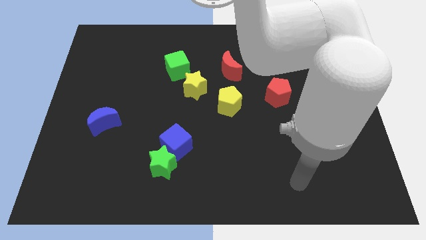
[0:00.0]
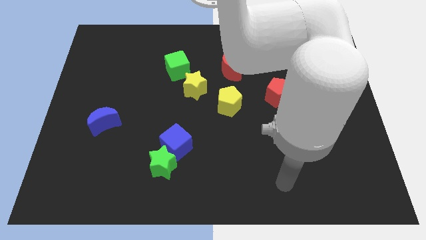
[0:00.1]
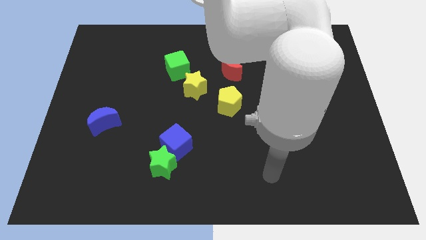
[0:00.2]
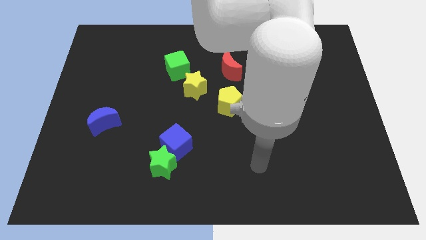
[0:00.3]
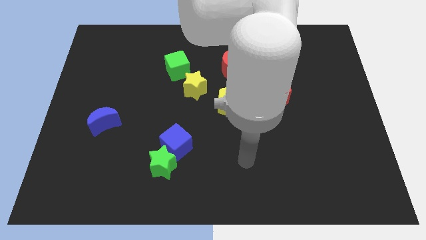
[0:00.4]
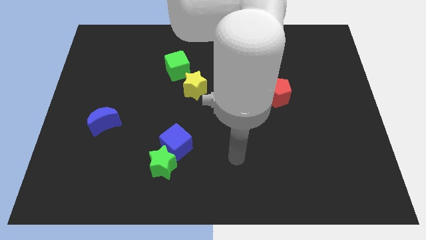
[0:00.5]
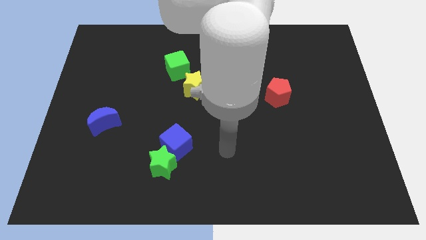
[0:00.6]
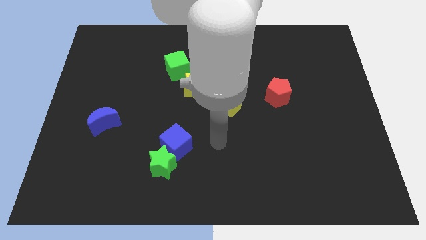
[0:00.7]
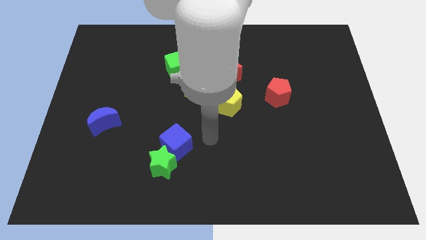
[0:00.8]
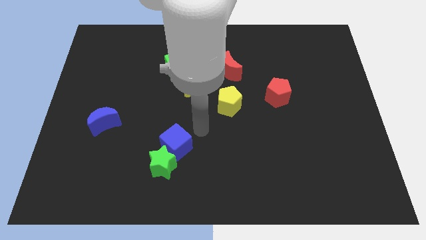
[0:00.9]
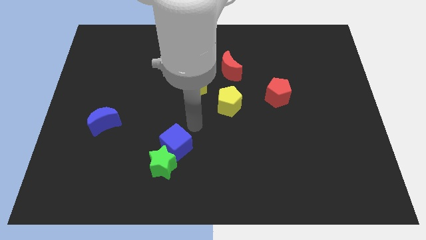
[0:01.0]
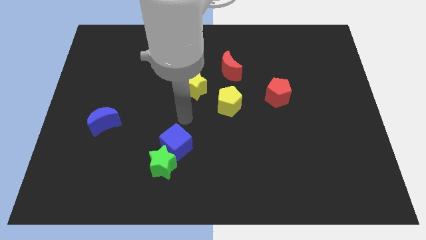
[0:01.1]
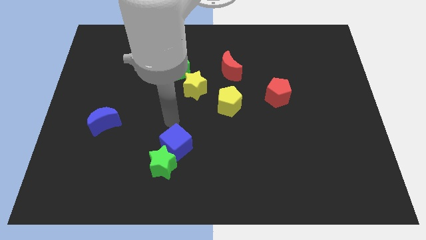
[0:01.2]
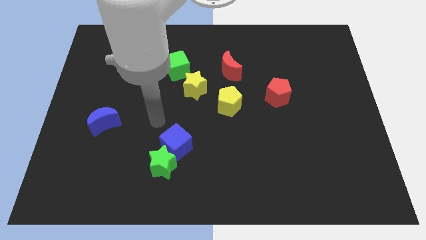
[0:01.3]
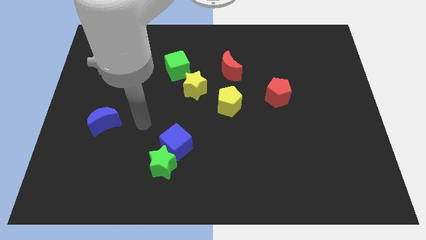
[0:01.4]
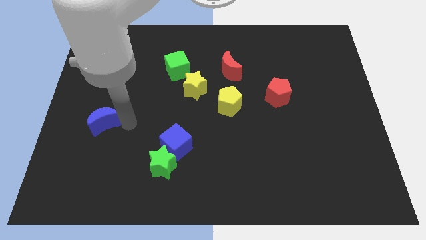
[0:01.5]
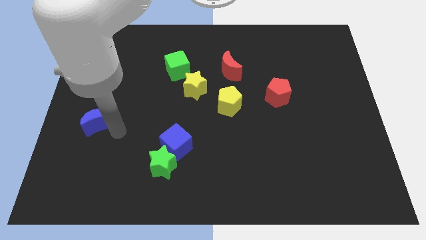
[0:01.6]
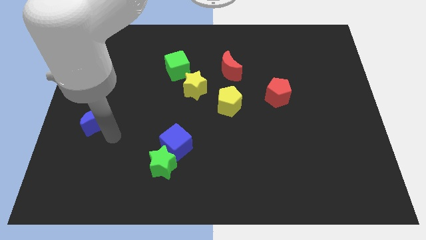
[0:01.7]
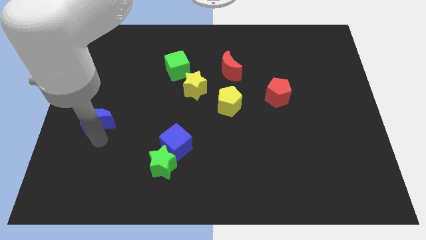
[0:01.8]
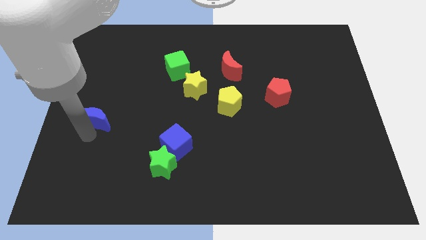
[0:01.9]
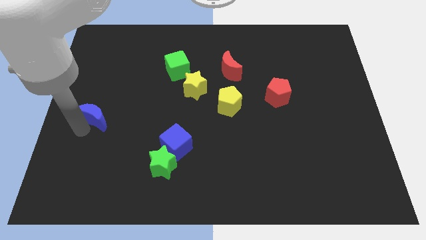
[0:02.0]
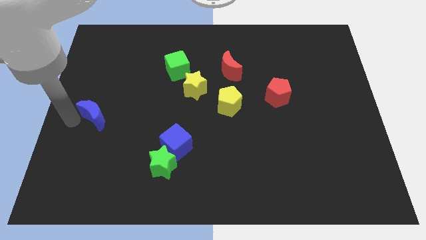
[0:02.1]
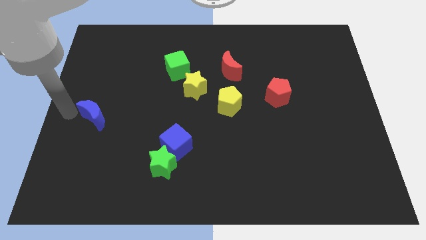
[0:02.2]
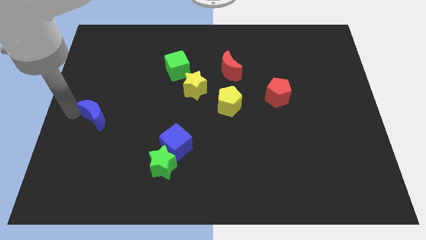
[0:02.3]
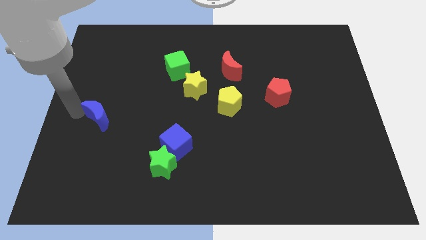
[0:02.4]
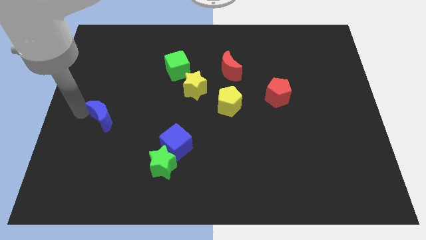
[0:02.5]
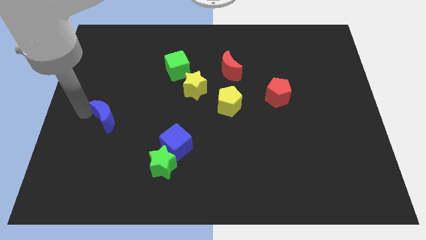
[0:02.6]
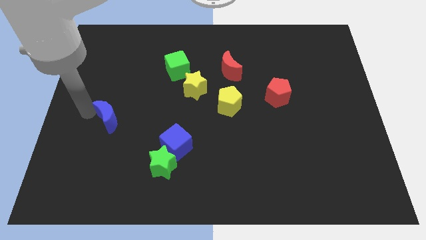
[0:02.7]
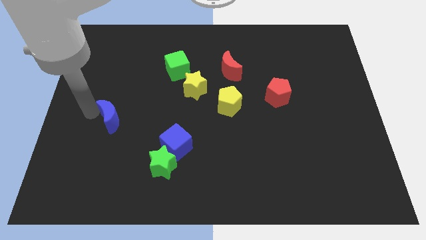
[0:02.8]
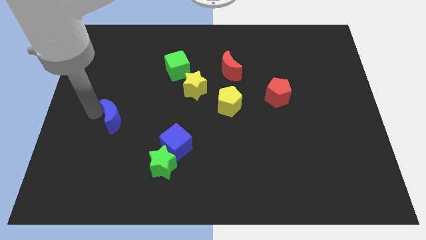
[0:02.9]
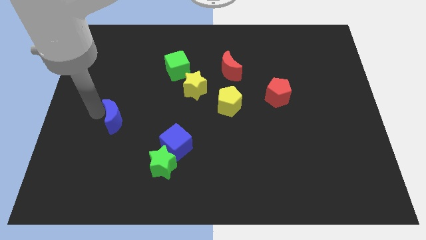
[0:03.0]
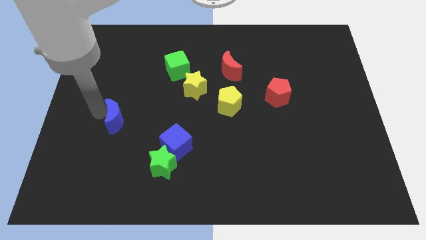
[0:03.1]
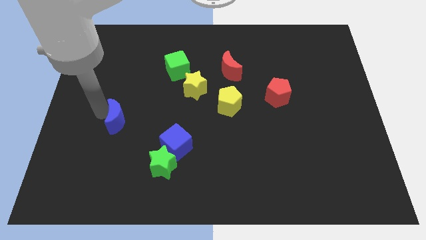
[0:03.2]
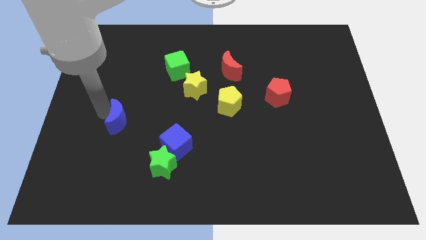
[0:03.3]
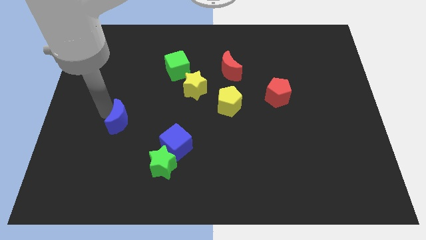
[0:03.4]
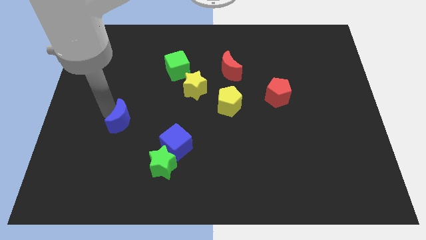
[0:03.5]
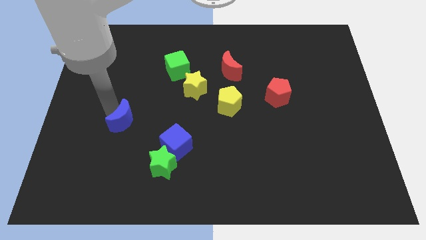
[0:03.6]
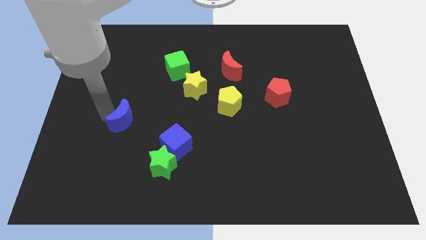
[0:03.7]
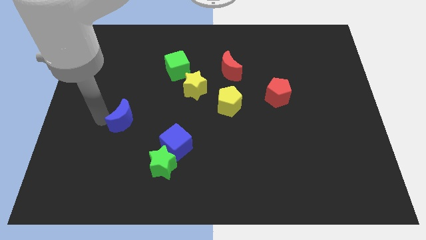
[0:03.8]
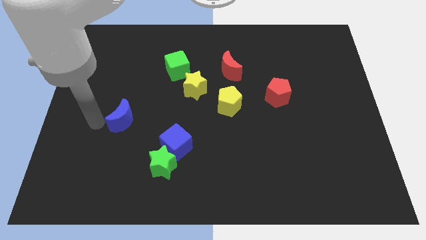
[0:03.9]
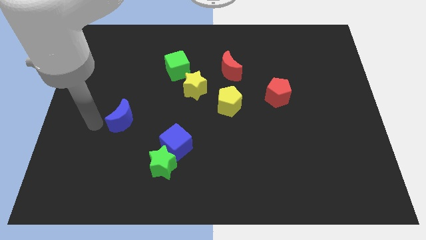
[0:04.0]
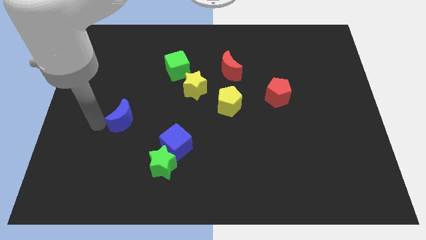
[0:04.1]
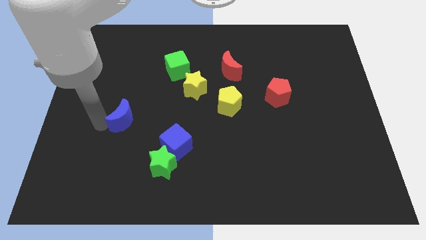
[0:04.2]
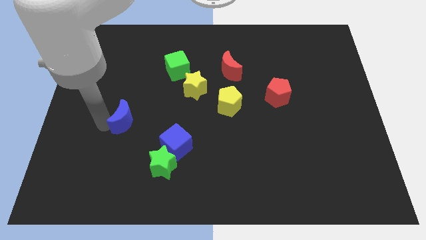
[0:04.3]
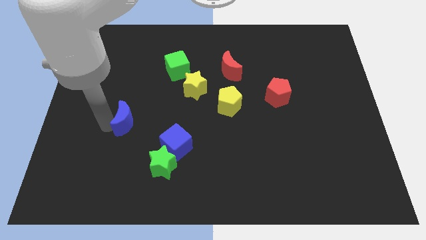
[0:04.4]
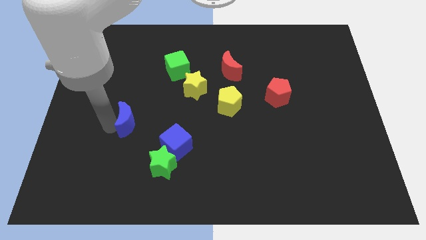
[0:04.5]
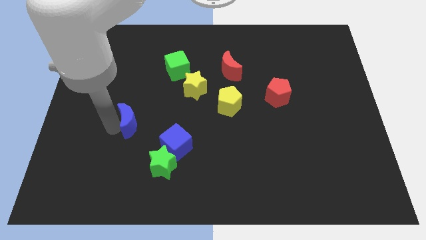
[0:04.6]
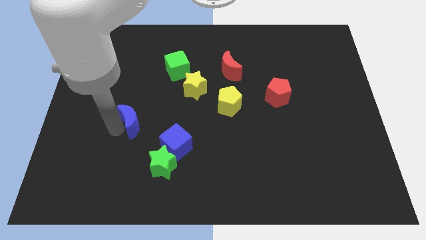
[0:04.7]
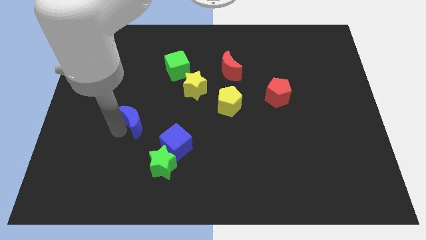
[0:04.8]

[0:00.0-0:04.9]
slide the blue moon slightly right

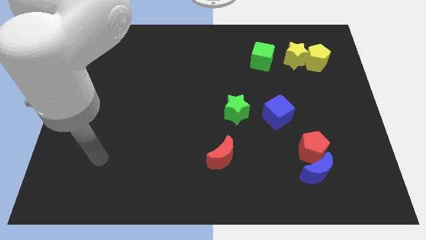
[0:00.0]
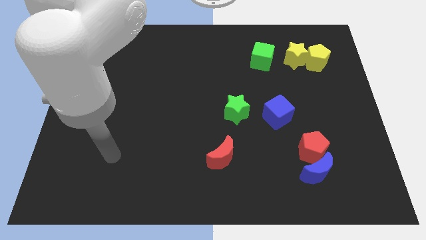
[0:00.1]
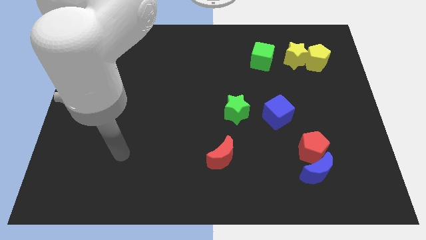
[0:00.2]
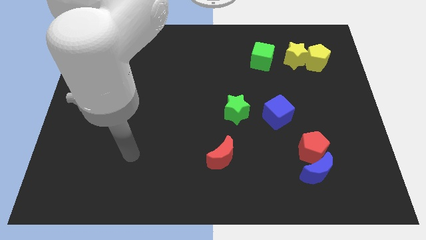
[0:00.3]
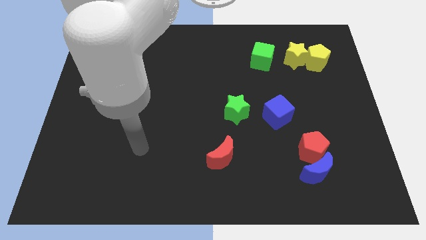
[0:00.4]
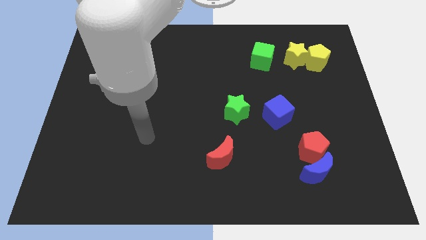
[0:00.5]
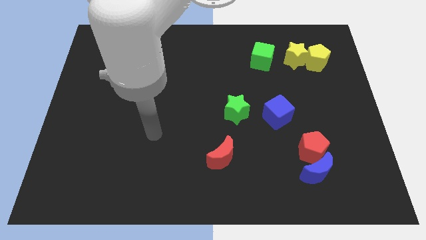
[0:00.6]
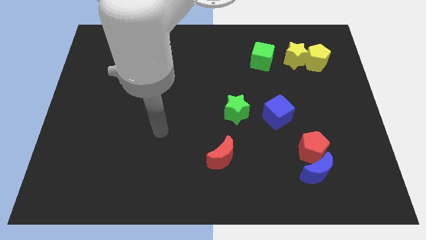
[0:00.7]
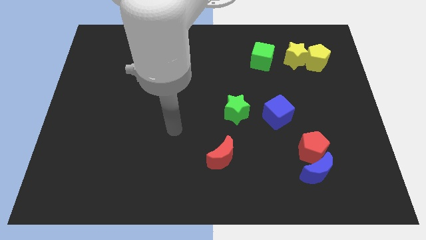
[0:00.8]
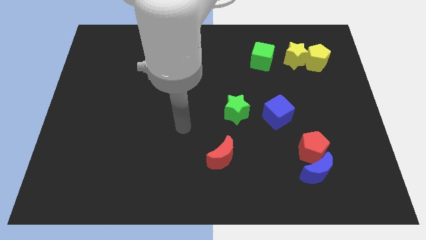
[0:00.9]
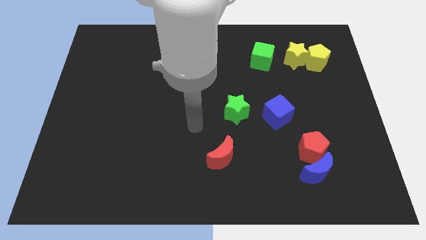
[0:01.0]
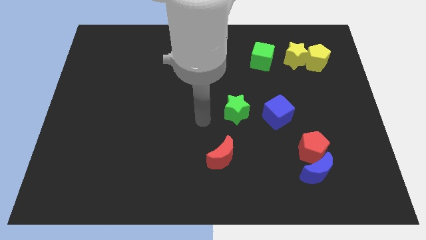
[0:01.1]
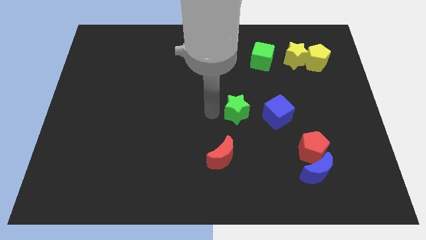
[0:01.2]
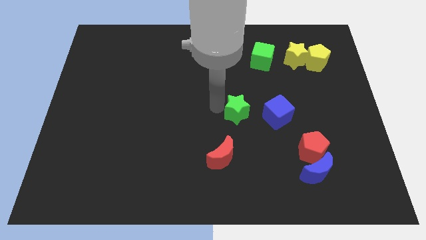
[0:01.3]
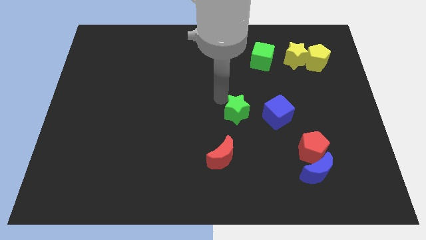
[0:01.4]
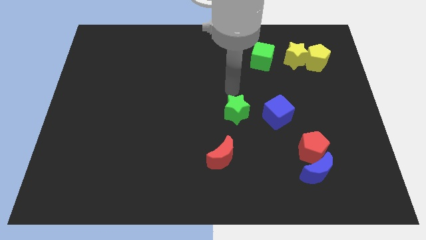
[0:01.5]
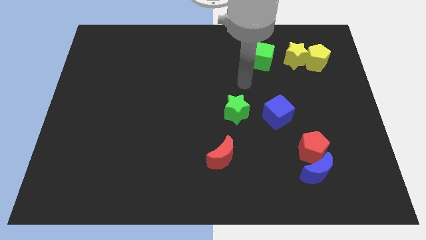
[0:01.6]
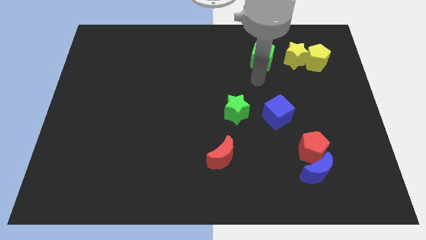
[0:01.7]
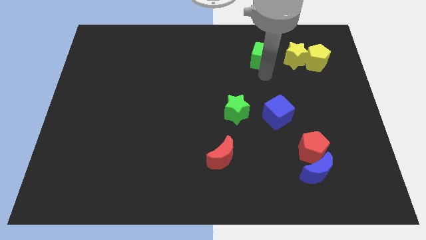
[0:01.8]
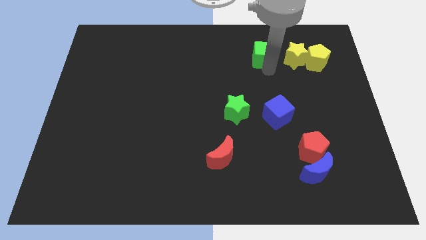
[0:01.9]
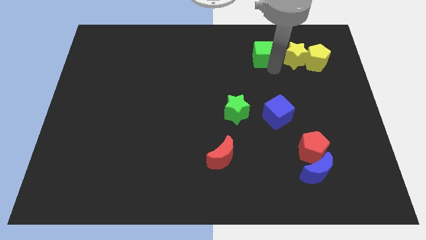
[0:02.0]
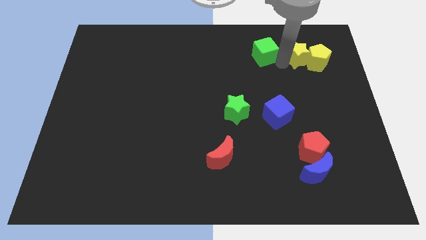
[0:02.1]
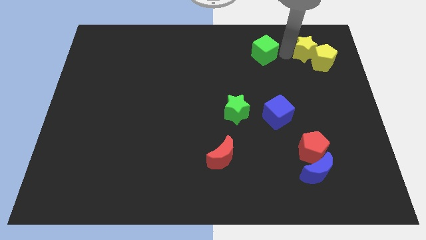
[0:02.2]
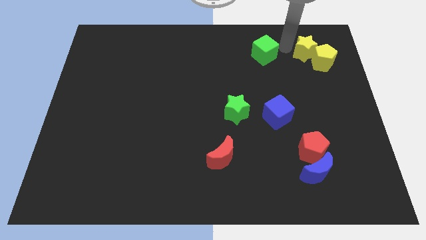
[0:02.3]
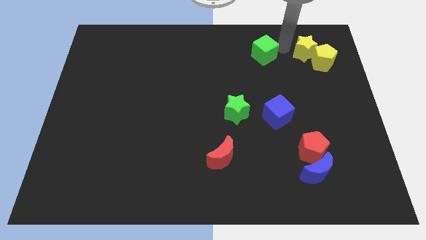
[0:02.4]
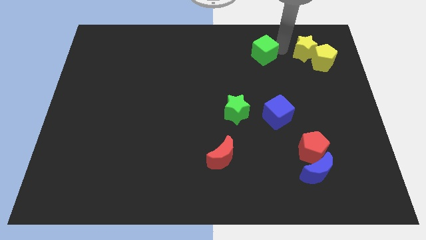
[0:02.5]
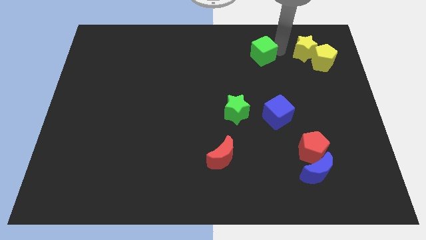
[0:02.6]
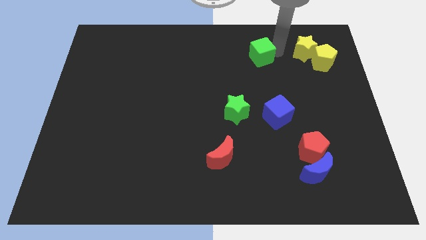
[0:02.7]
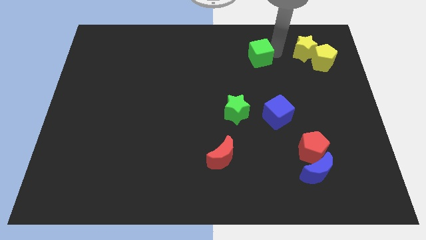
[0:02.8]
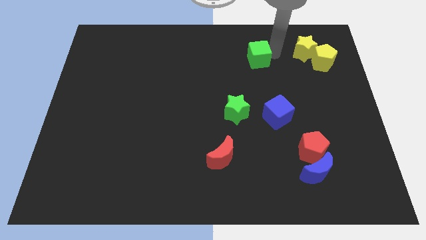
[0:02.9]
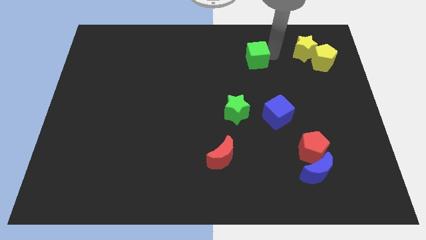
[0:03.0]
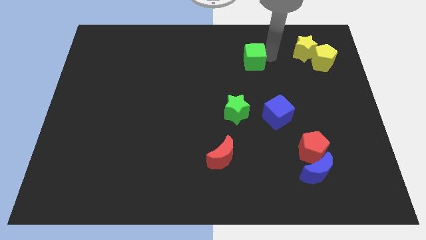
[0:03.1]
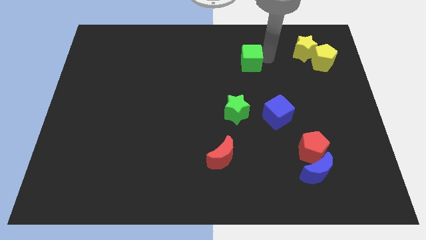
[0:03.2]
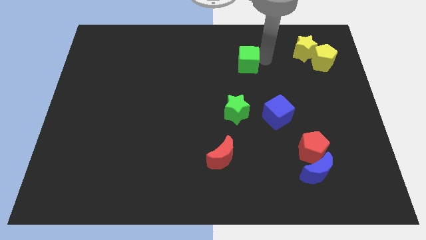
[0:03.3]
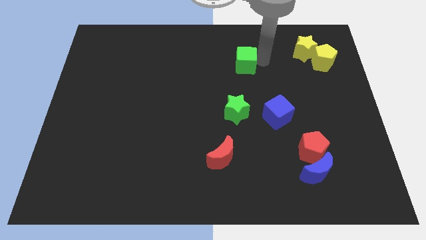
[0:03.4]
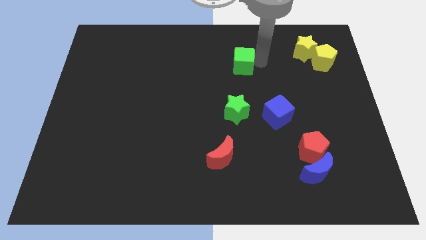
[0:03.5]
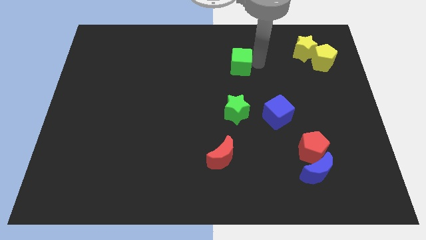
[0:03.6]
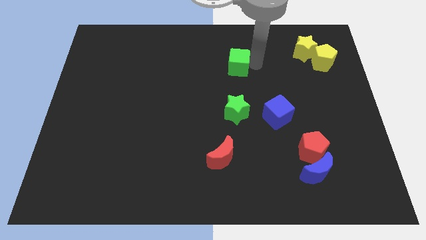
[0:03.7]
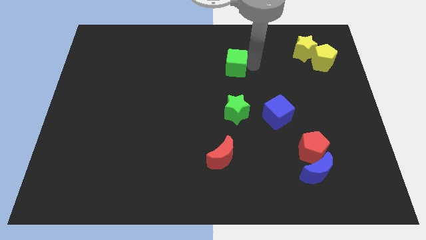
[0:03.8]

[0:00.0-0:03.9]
slightly push the green cube to the left
